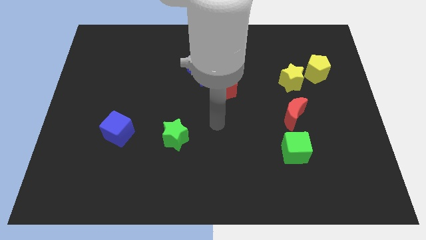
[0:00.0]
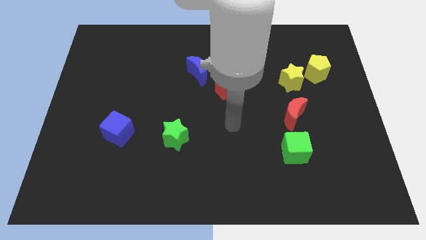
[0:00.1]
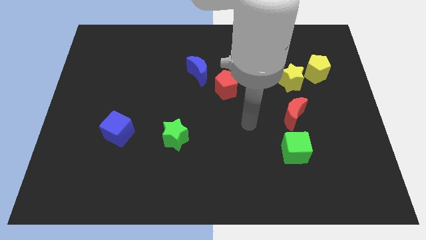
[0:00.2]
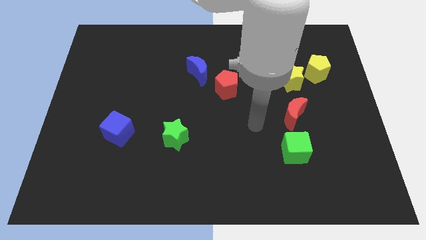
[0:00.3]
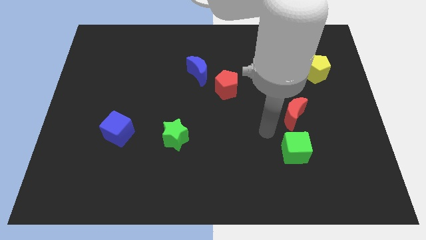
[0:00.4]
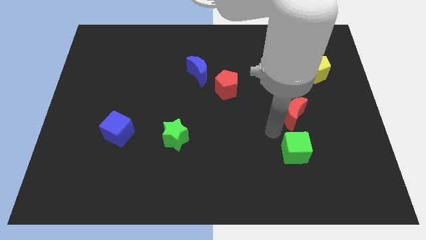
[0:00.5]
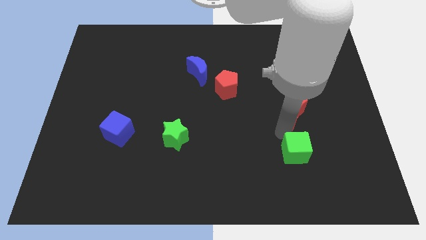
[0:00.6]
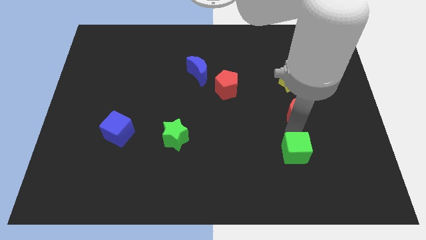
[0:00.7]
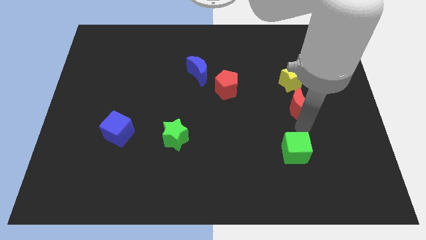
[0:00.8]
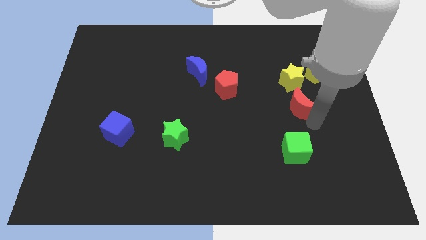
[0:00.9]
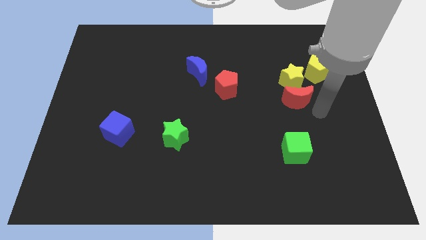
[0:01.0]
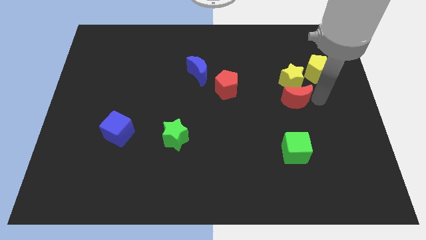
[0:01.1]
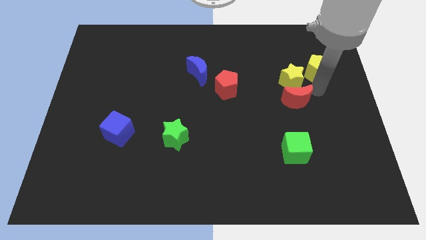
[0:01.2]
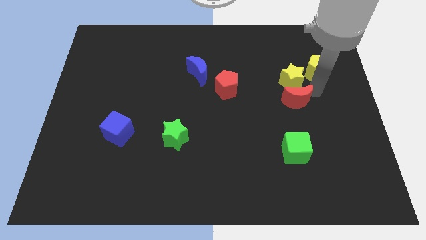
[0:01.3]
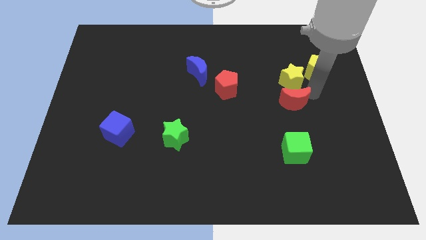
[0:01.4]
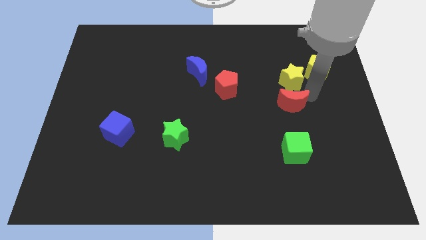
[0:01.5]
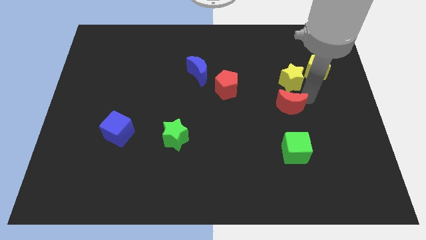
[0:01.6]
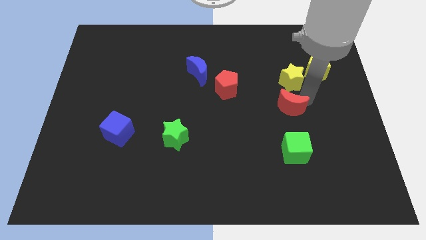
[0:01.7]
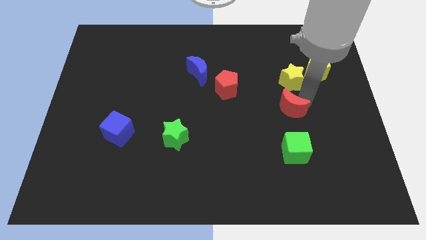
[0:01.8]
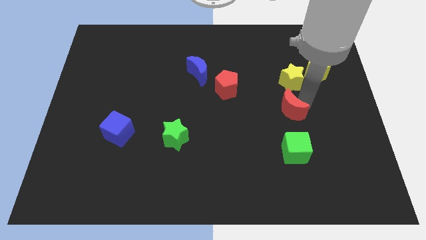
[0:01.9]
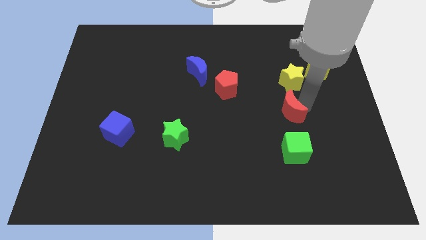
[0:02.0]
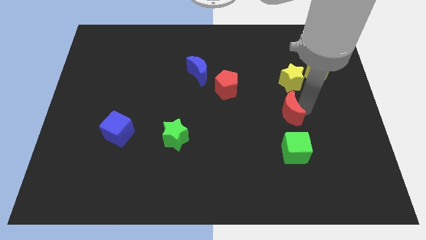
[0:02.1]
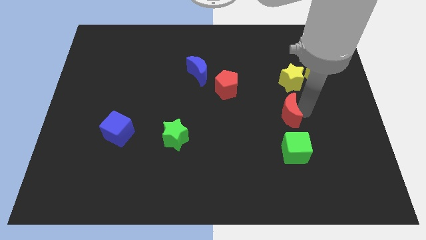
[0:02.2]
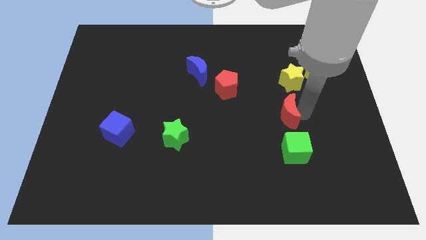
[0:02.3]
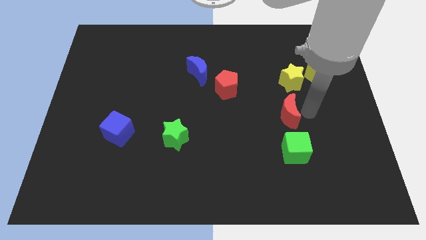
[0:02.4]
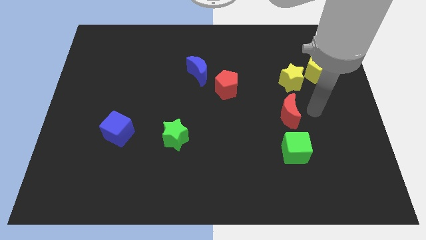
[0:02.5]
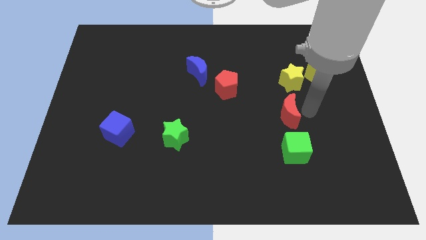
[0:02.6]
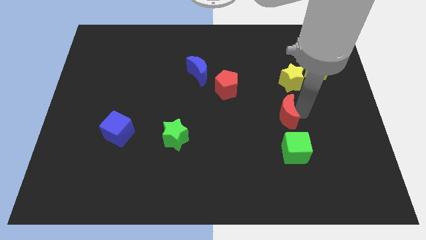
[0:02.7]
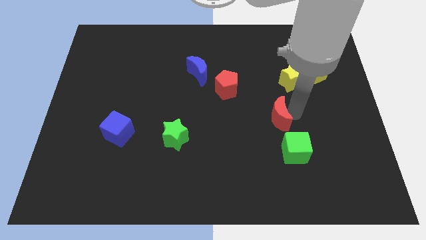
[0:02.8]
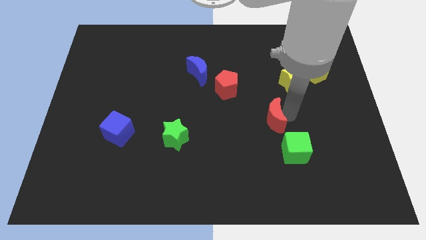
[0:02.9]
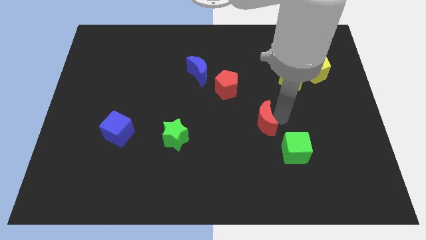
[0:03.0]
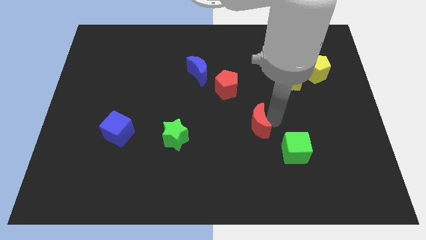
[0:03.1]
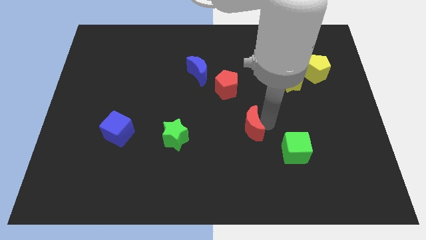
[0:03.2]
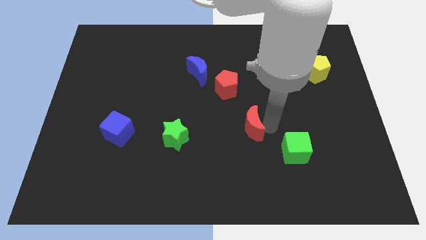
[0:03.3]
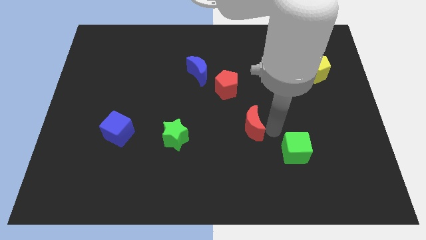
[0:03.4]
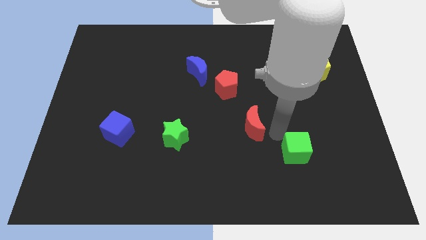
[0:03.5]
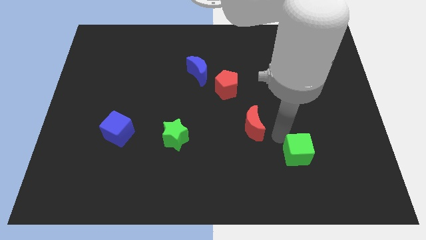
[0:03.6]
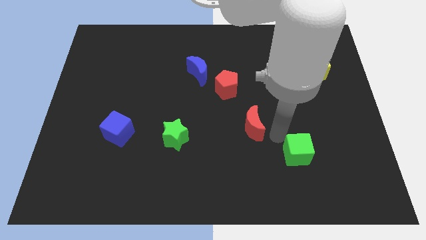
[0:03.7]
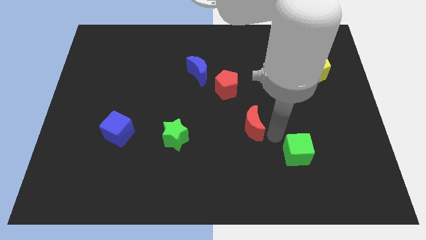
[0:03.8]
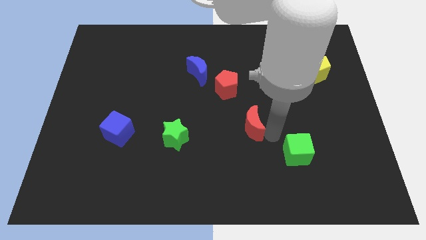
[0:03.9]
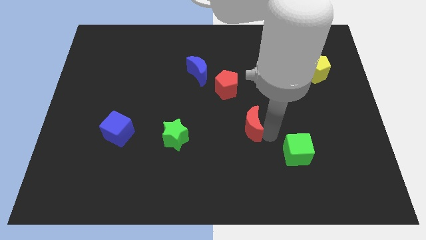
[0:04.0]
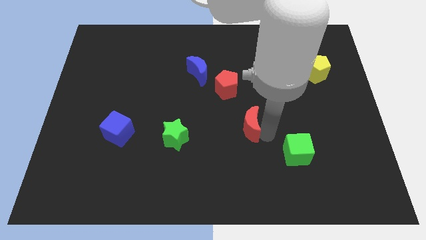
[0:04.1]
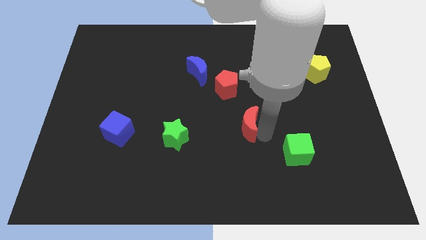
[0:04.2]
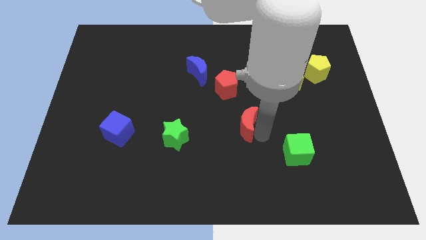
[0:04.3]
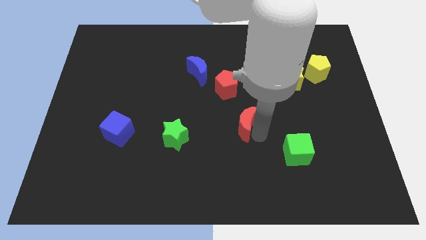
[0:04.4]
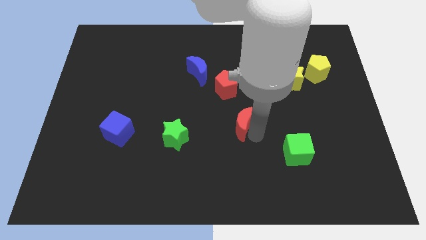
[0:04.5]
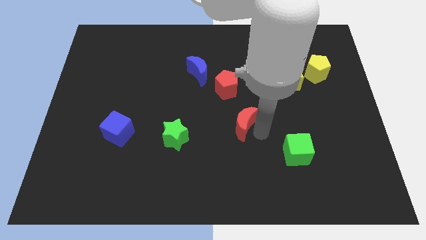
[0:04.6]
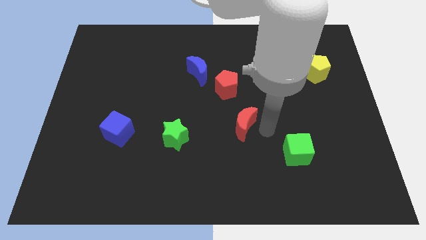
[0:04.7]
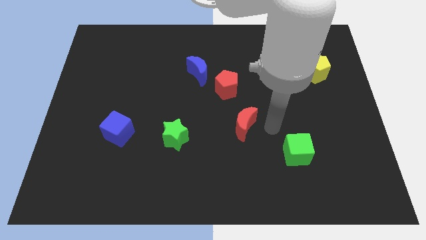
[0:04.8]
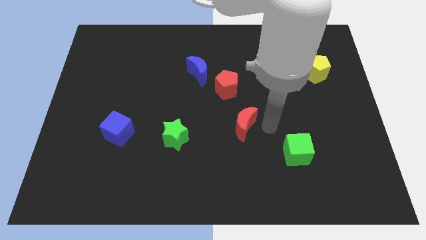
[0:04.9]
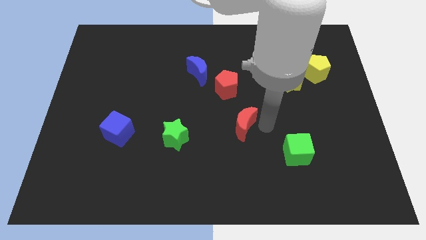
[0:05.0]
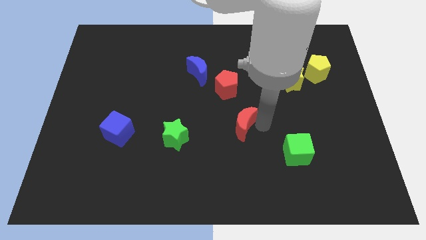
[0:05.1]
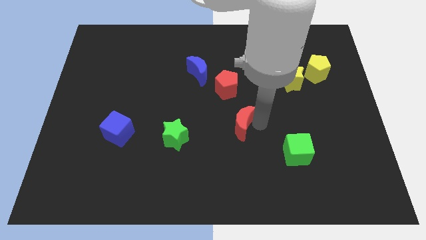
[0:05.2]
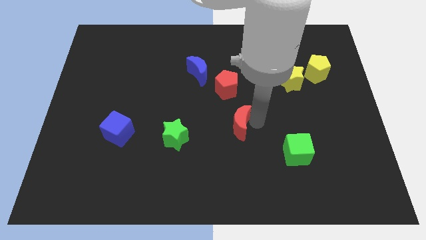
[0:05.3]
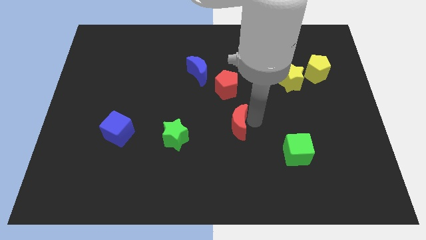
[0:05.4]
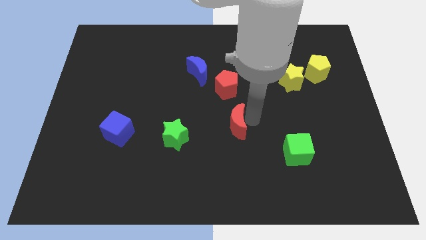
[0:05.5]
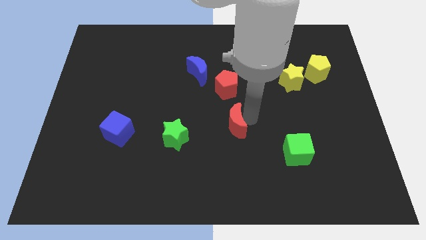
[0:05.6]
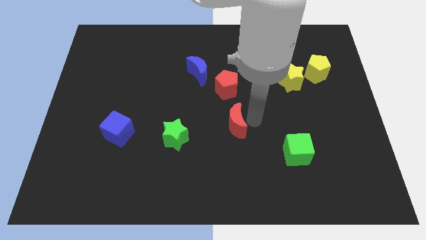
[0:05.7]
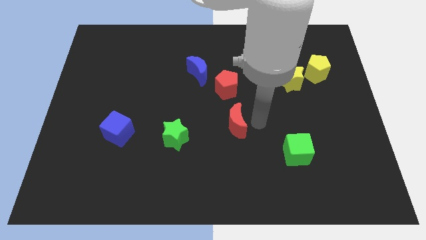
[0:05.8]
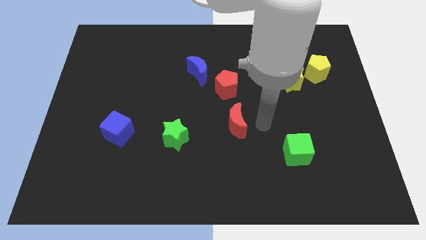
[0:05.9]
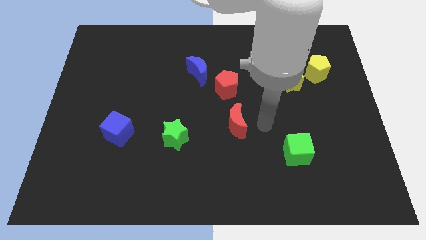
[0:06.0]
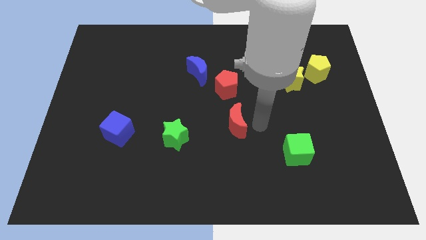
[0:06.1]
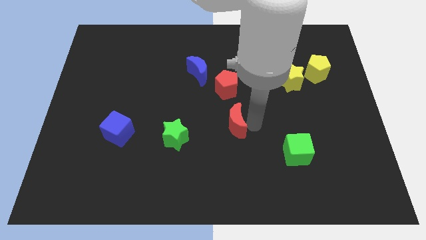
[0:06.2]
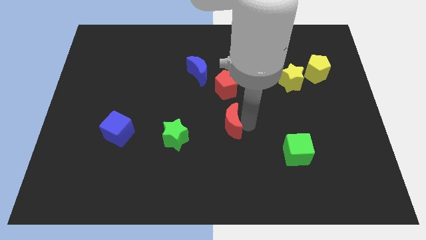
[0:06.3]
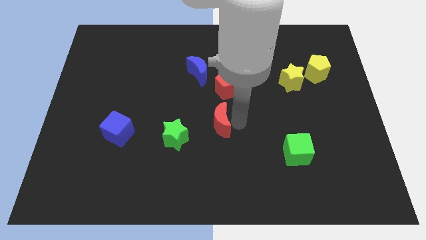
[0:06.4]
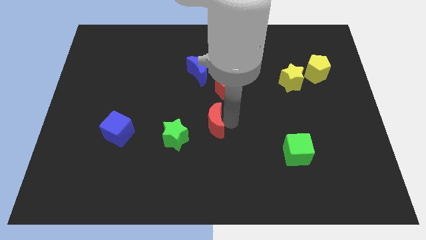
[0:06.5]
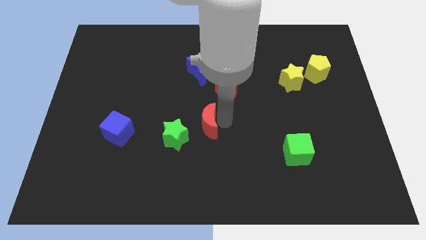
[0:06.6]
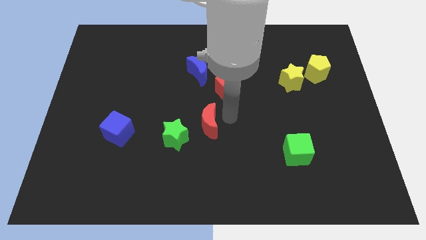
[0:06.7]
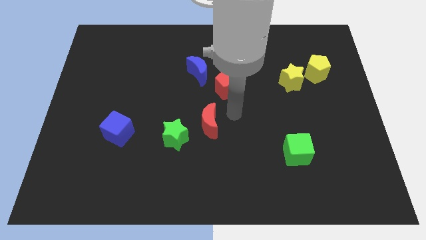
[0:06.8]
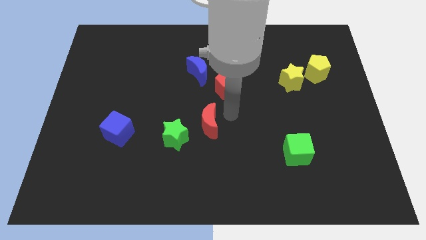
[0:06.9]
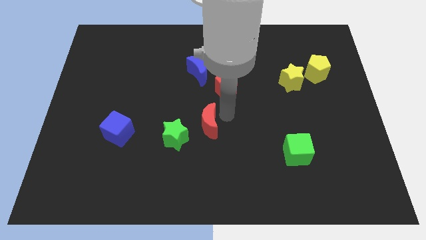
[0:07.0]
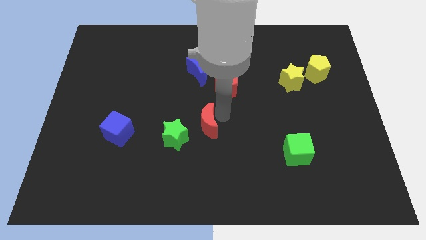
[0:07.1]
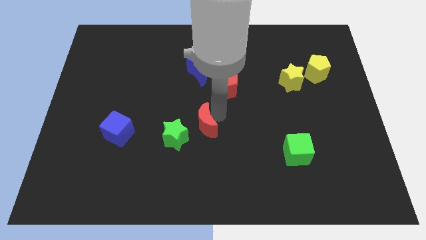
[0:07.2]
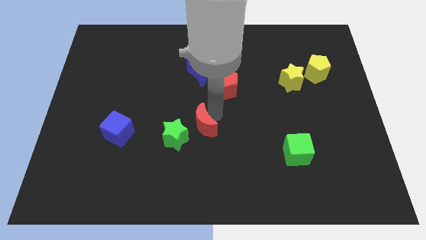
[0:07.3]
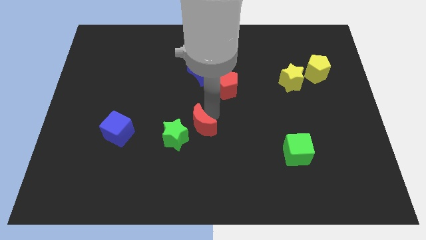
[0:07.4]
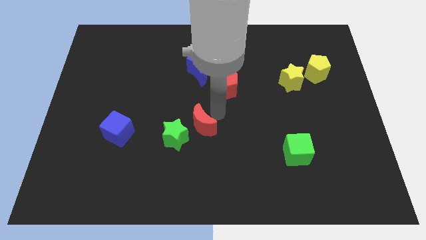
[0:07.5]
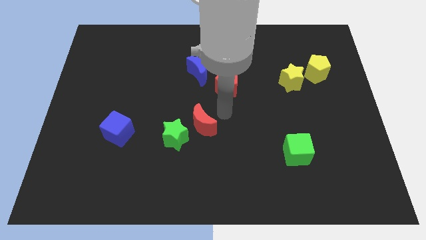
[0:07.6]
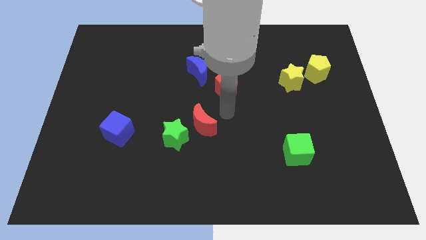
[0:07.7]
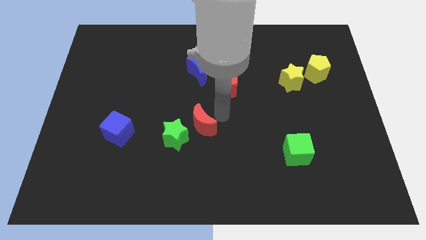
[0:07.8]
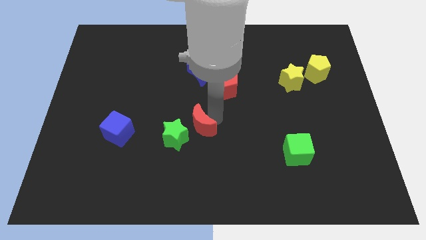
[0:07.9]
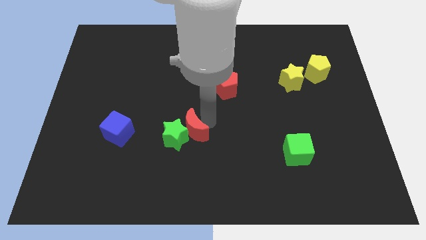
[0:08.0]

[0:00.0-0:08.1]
slide the red moon close to the green star

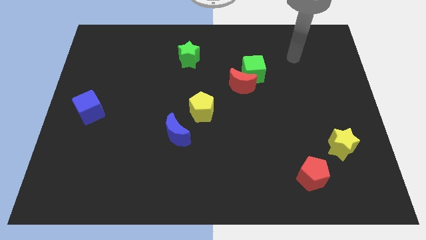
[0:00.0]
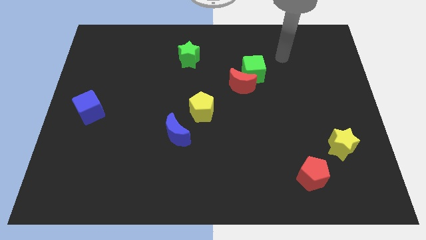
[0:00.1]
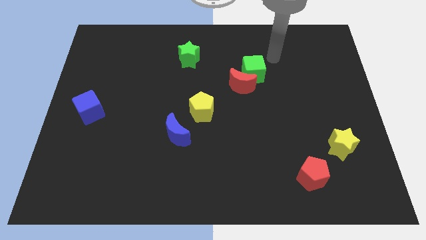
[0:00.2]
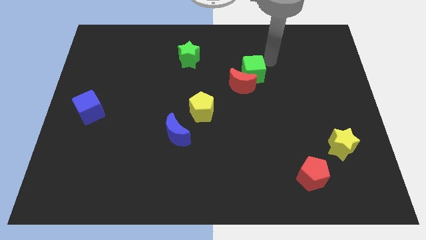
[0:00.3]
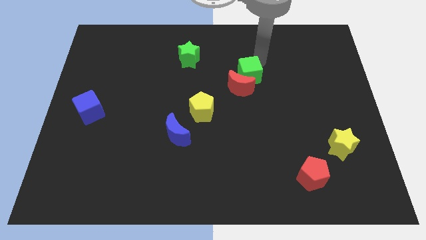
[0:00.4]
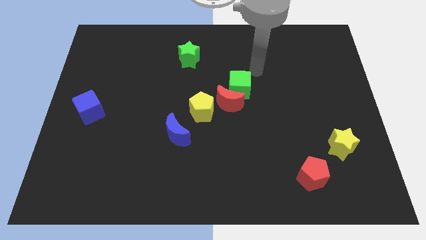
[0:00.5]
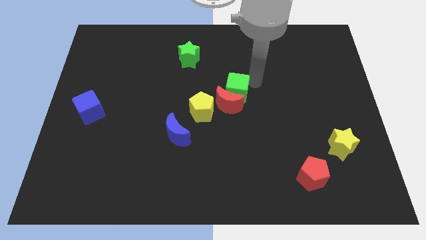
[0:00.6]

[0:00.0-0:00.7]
move the red moon close to the yellow pentagon
